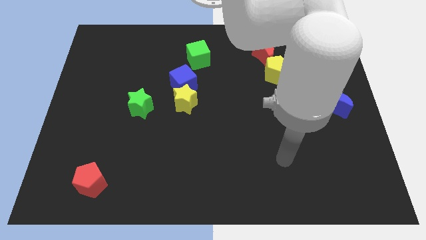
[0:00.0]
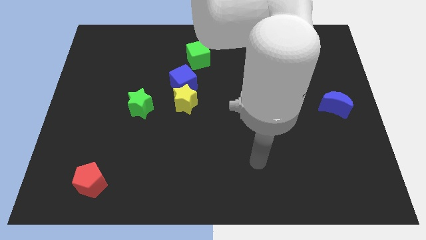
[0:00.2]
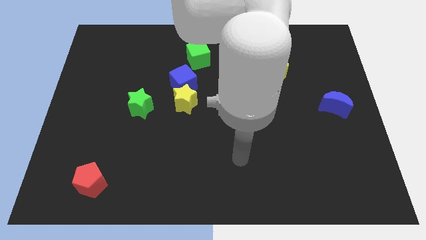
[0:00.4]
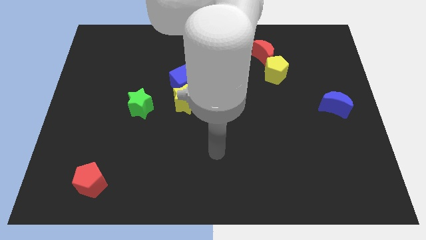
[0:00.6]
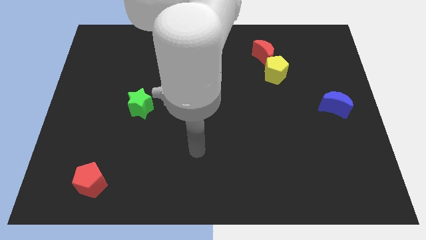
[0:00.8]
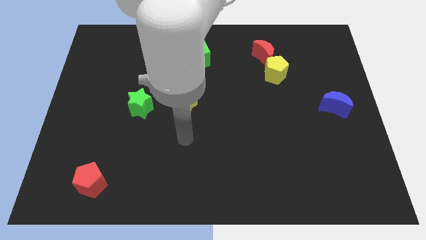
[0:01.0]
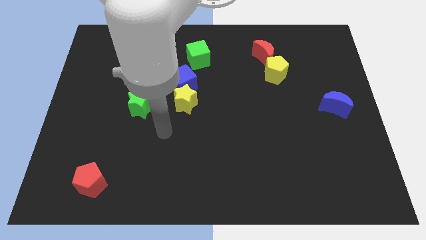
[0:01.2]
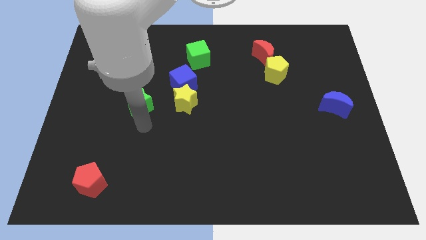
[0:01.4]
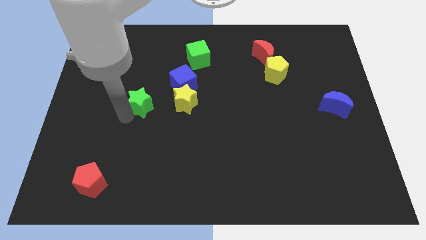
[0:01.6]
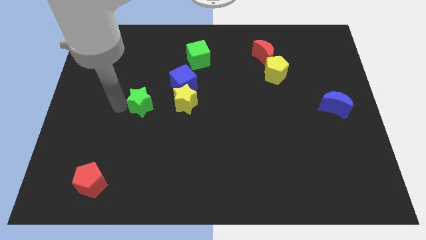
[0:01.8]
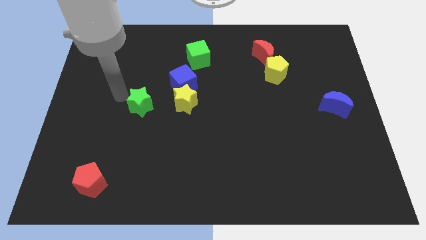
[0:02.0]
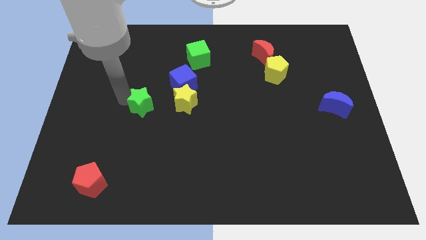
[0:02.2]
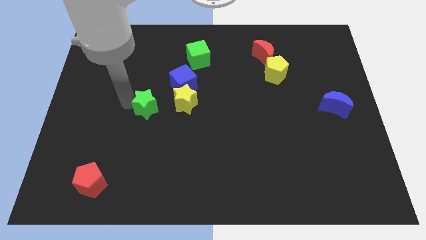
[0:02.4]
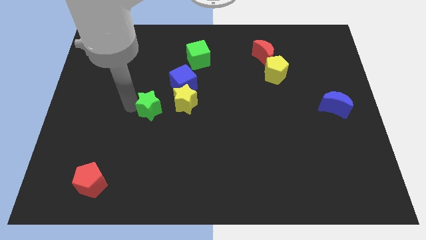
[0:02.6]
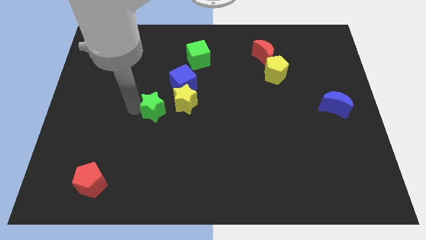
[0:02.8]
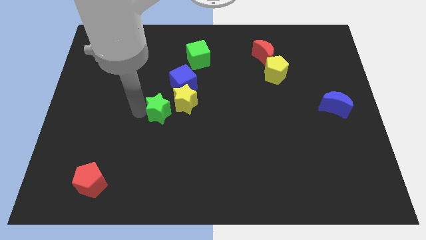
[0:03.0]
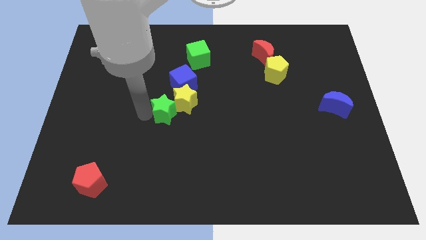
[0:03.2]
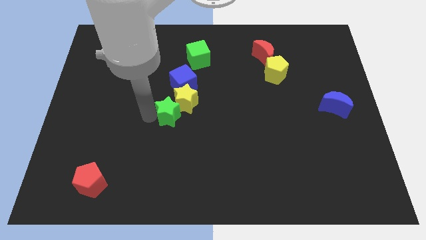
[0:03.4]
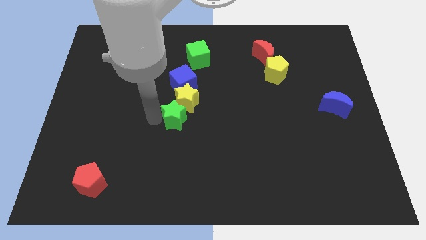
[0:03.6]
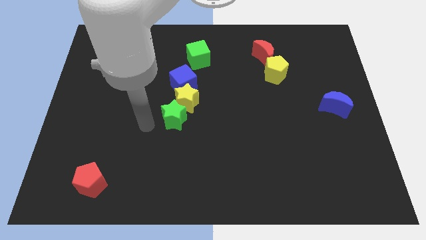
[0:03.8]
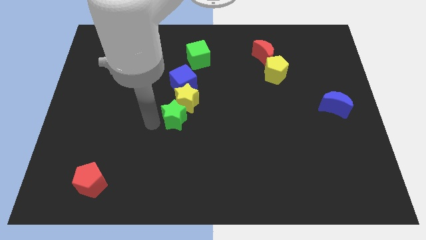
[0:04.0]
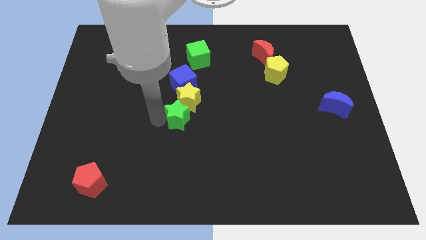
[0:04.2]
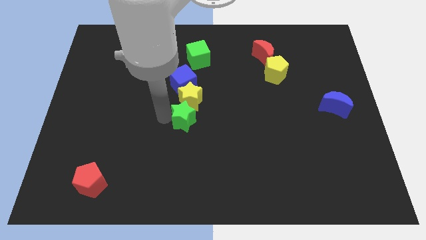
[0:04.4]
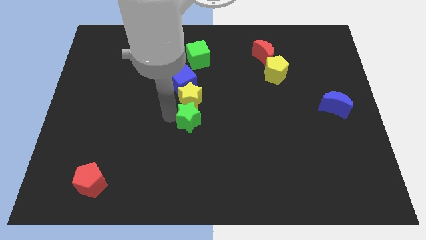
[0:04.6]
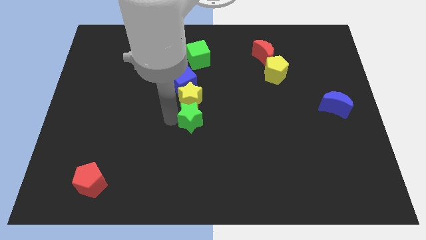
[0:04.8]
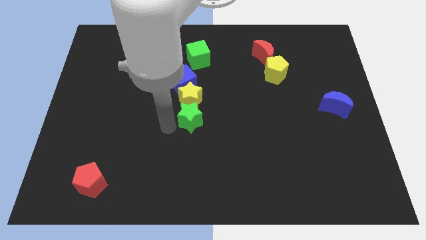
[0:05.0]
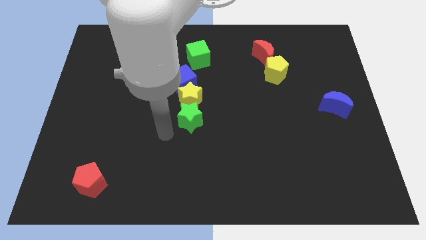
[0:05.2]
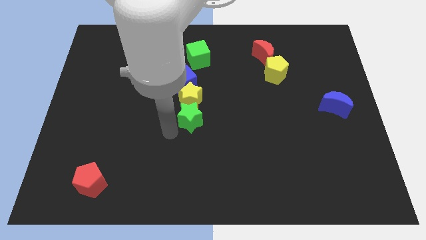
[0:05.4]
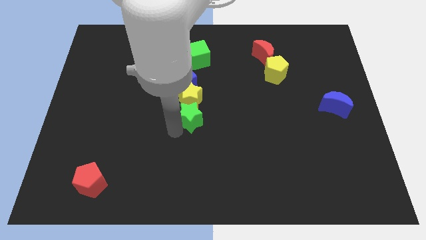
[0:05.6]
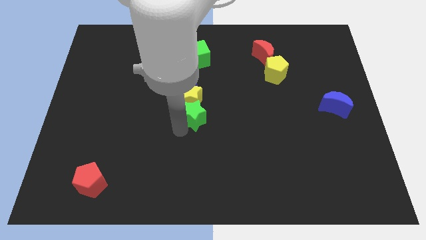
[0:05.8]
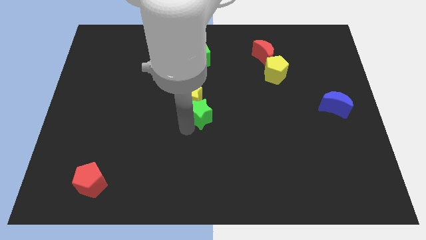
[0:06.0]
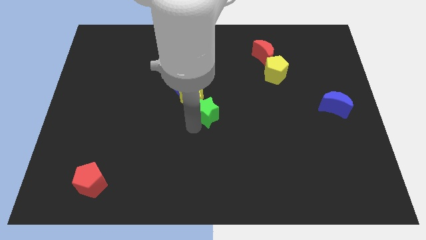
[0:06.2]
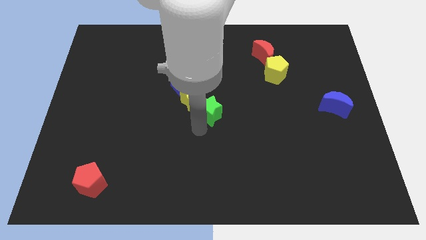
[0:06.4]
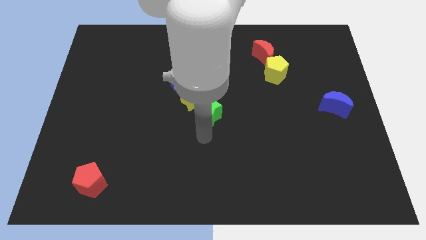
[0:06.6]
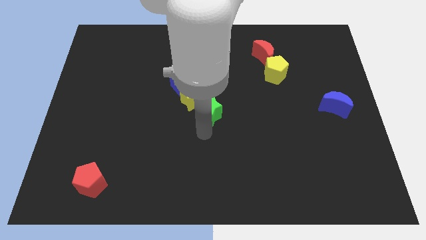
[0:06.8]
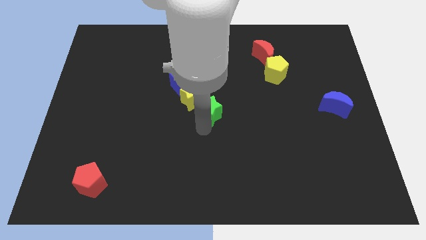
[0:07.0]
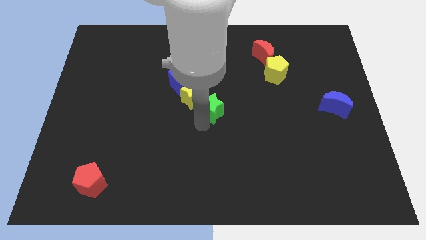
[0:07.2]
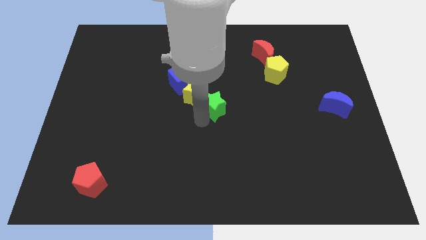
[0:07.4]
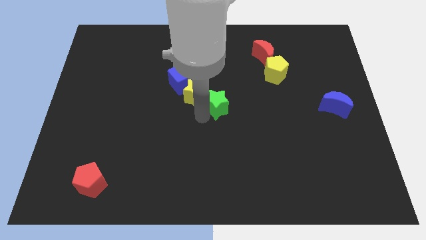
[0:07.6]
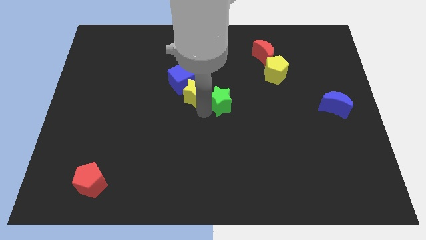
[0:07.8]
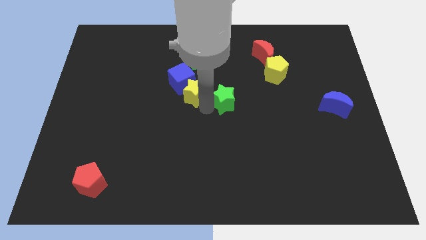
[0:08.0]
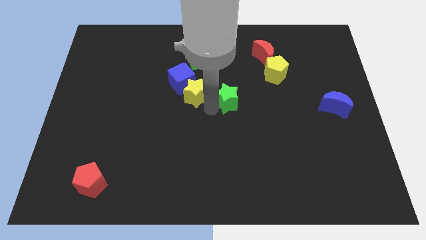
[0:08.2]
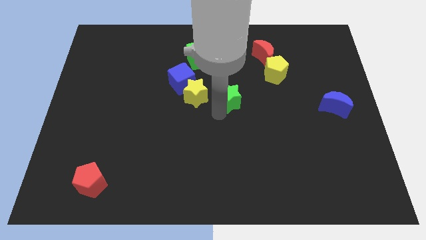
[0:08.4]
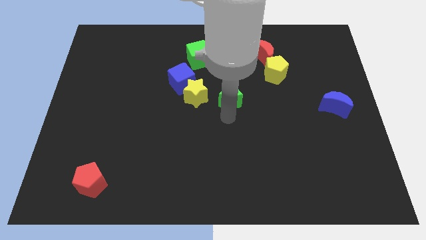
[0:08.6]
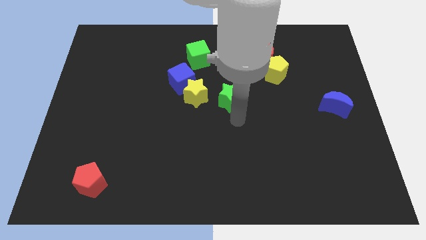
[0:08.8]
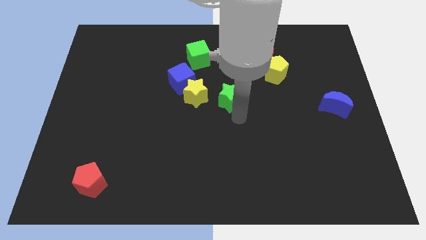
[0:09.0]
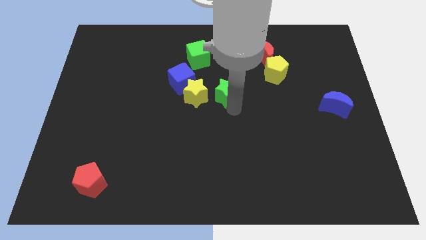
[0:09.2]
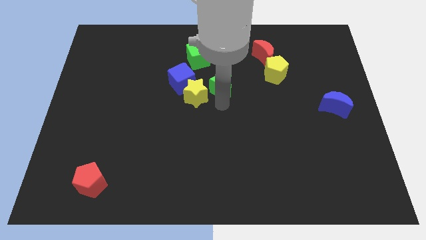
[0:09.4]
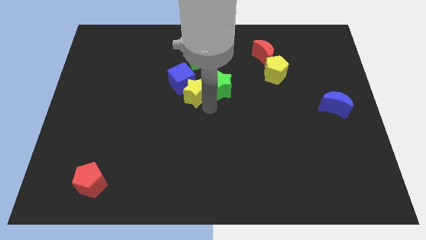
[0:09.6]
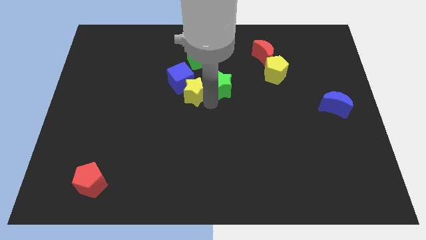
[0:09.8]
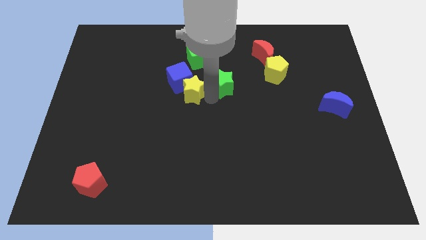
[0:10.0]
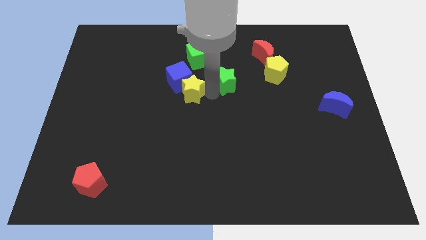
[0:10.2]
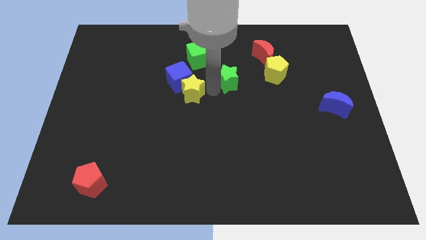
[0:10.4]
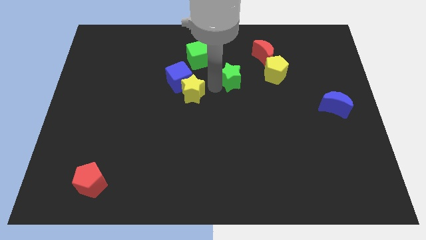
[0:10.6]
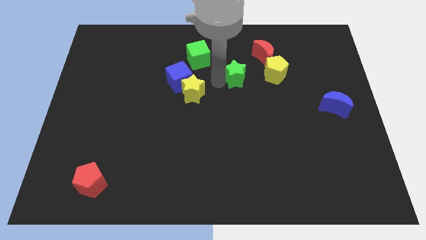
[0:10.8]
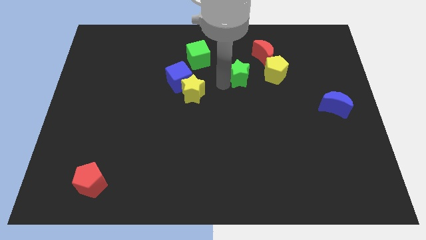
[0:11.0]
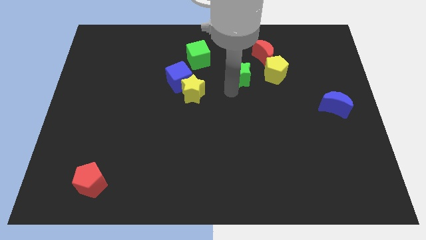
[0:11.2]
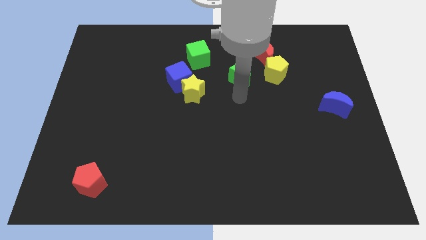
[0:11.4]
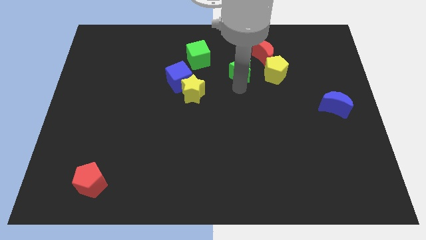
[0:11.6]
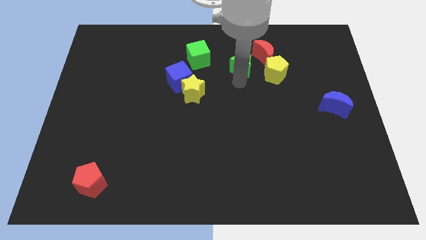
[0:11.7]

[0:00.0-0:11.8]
move the green star right of the green cube
